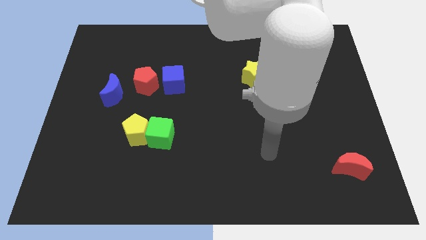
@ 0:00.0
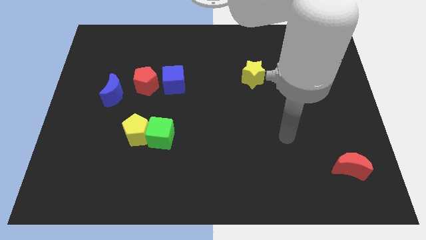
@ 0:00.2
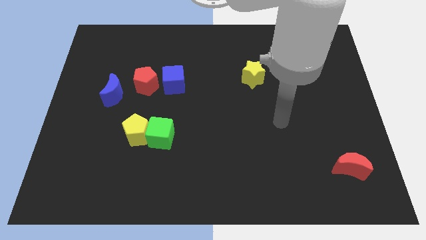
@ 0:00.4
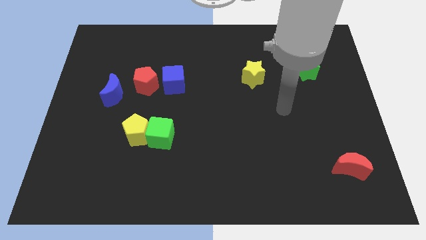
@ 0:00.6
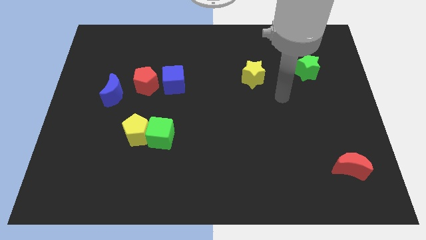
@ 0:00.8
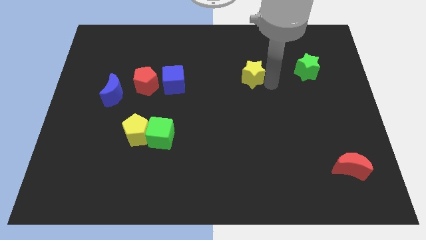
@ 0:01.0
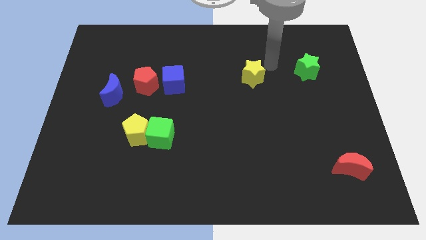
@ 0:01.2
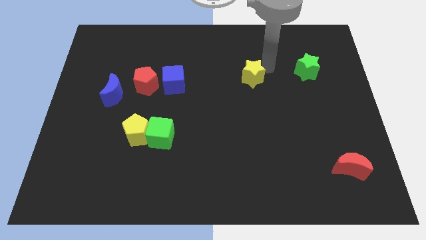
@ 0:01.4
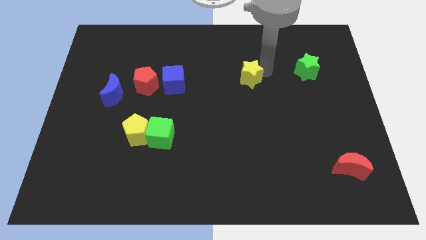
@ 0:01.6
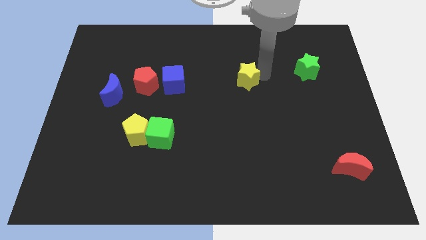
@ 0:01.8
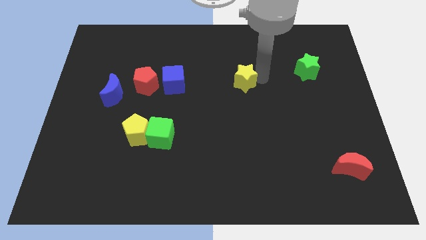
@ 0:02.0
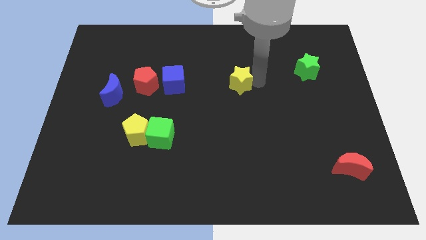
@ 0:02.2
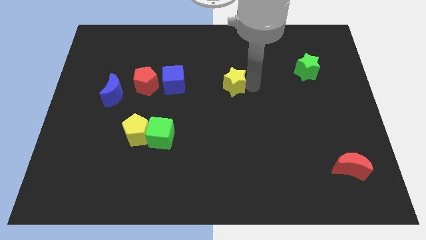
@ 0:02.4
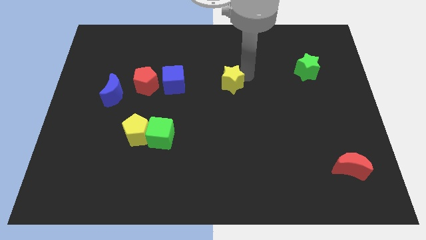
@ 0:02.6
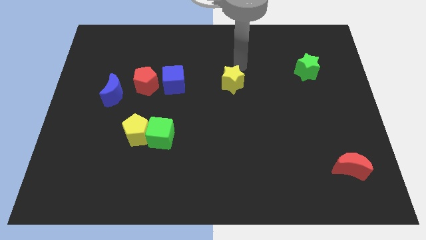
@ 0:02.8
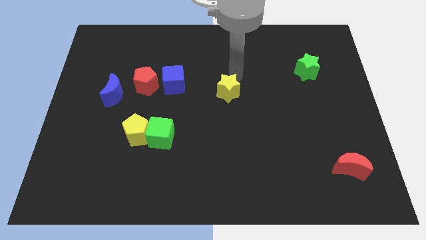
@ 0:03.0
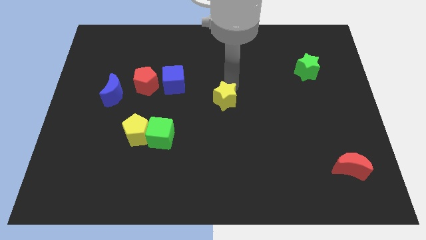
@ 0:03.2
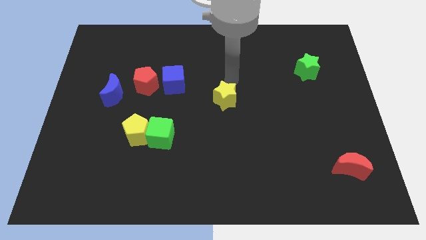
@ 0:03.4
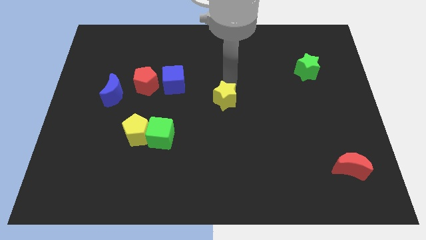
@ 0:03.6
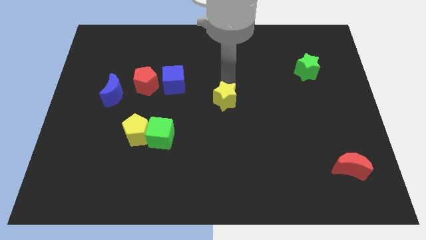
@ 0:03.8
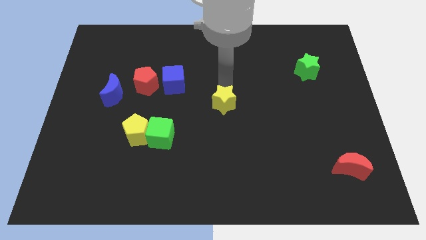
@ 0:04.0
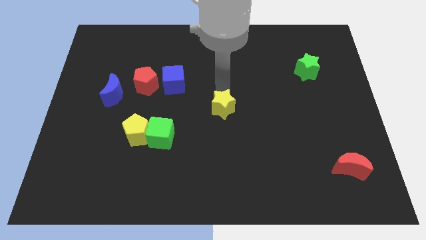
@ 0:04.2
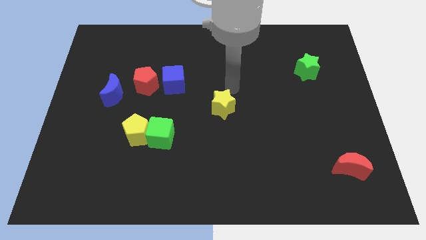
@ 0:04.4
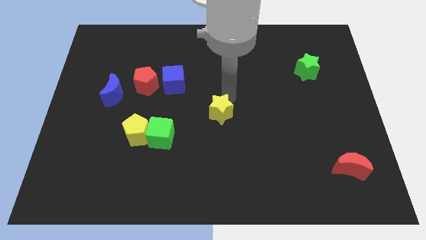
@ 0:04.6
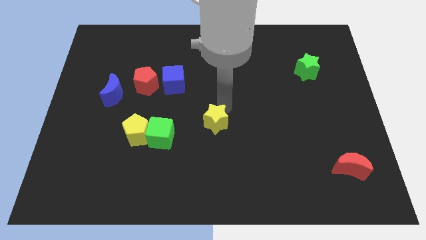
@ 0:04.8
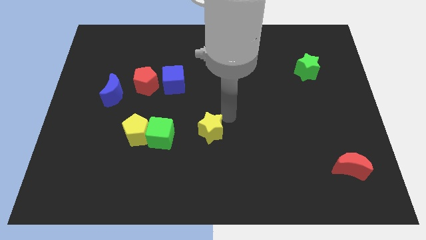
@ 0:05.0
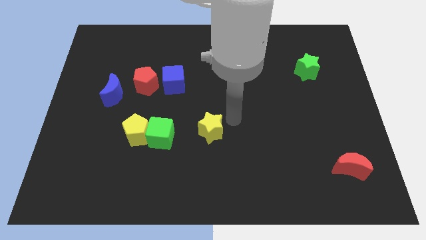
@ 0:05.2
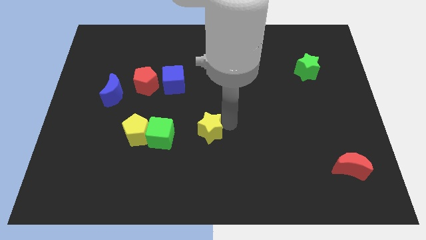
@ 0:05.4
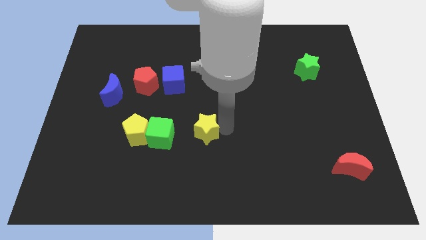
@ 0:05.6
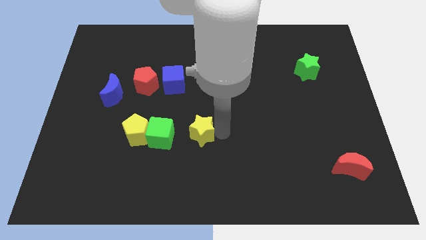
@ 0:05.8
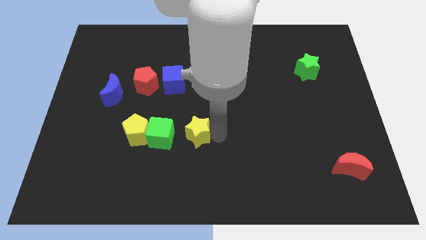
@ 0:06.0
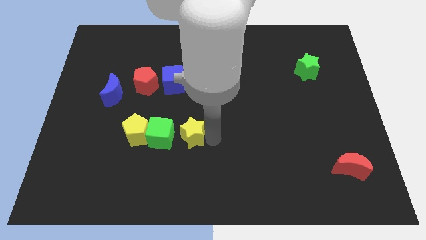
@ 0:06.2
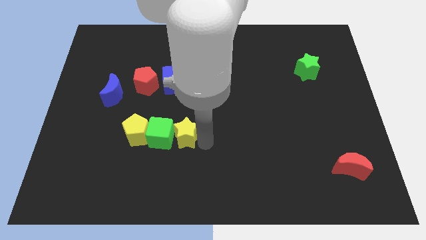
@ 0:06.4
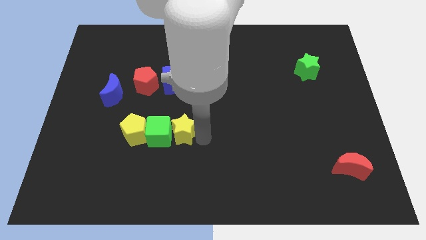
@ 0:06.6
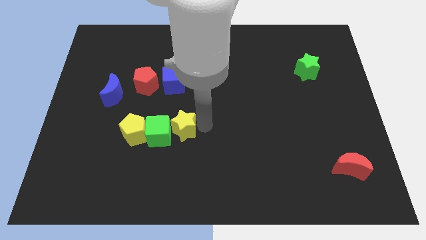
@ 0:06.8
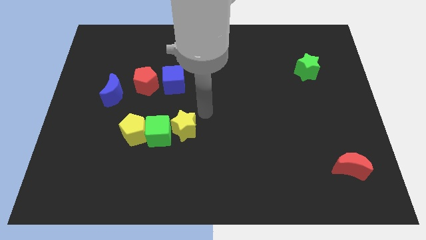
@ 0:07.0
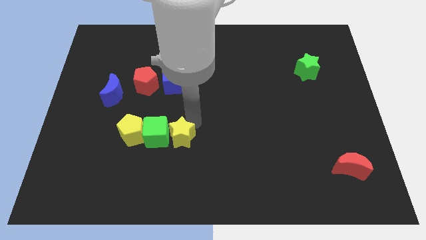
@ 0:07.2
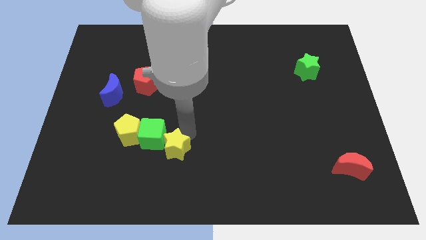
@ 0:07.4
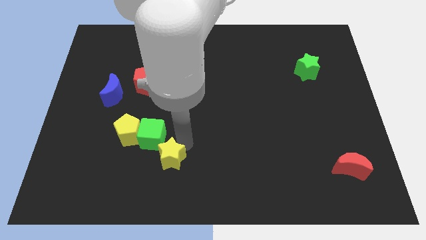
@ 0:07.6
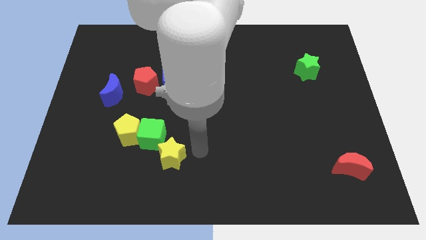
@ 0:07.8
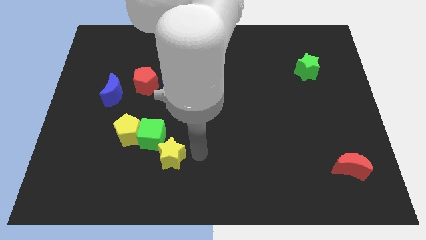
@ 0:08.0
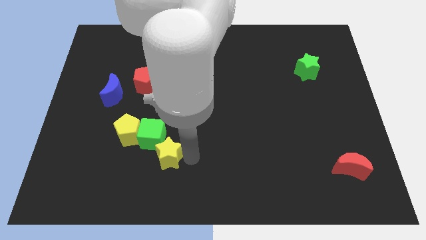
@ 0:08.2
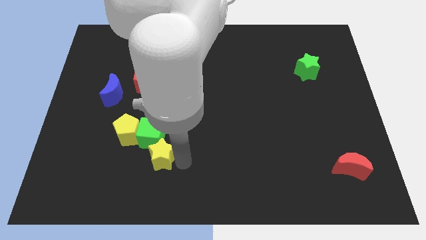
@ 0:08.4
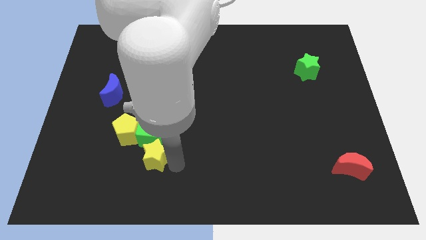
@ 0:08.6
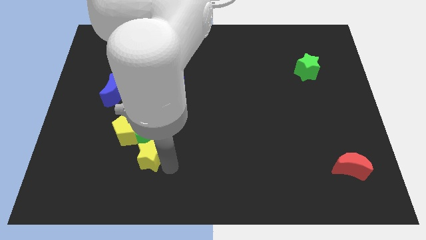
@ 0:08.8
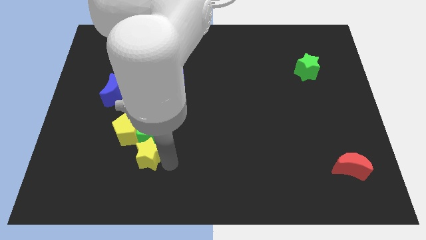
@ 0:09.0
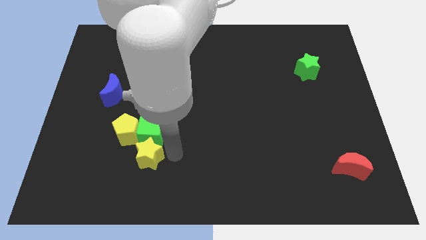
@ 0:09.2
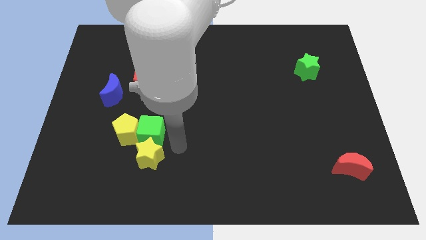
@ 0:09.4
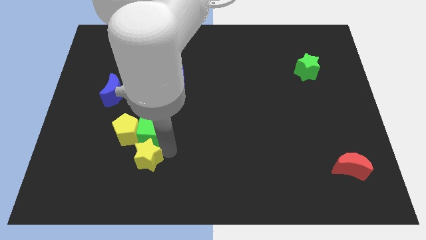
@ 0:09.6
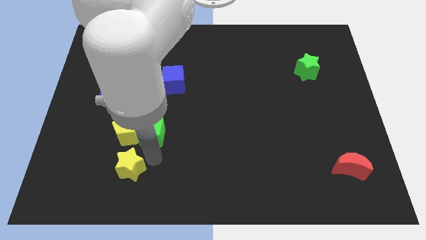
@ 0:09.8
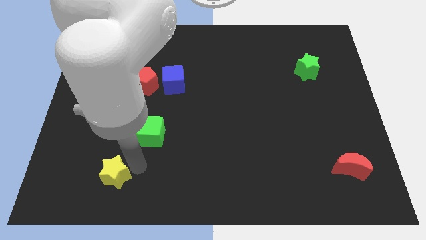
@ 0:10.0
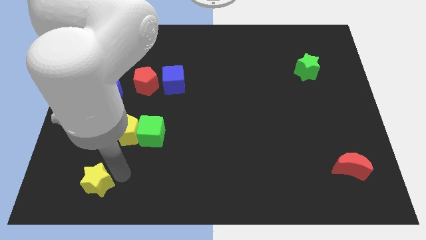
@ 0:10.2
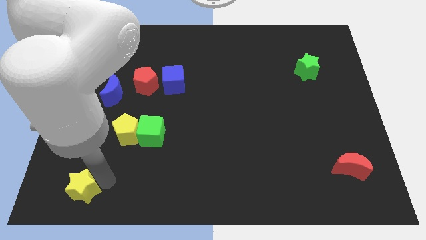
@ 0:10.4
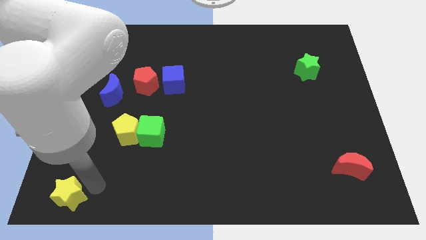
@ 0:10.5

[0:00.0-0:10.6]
slide the yellow star to the lower left corner

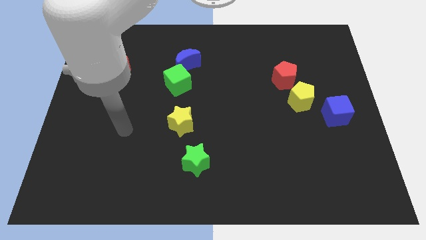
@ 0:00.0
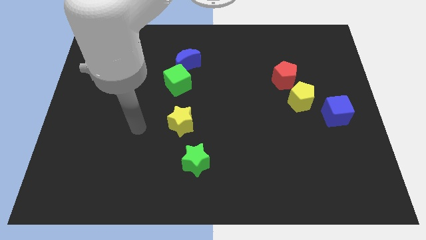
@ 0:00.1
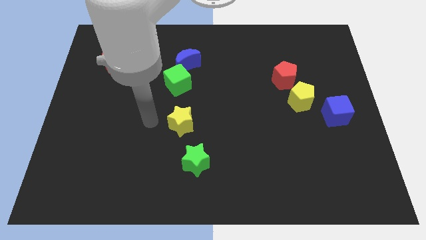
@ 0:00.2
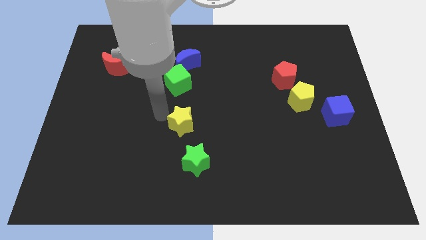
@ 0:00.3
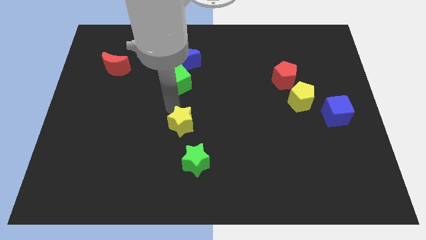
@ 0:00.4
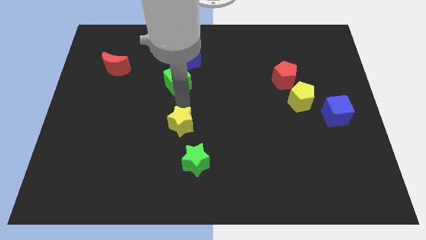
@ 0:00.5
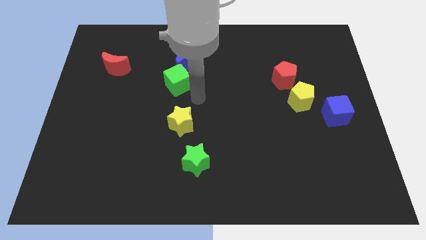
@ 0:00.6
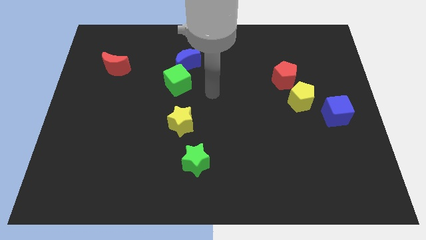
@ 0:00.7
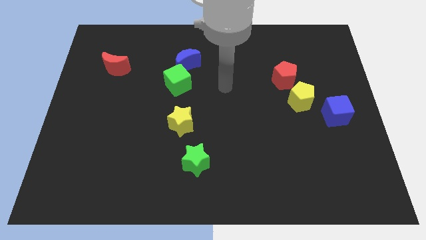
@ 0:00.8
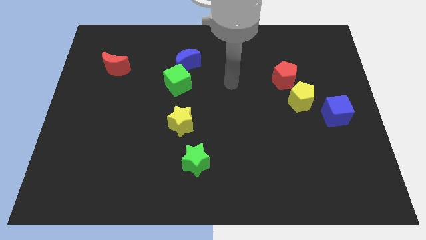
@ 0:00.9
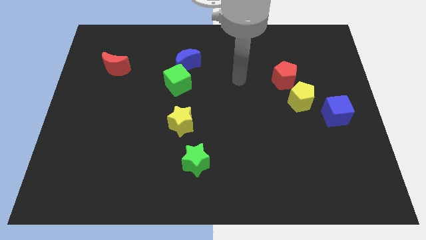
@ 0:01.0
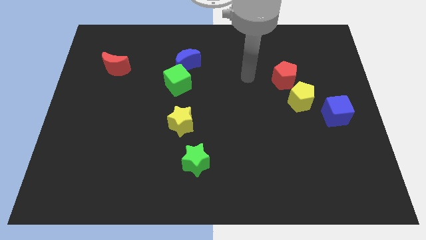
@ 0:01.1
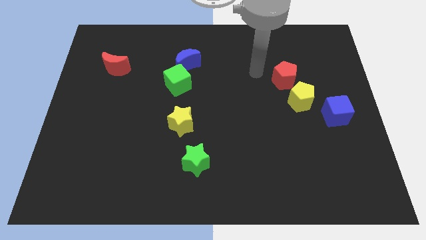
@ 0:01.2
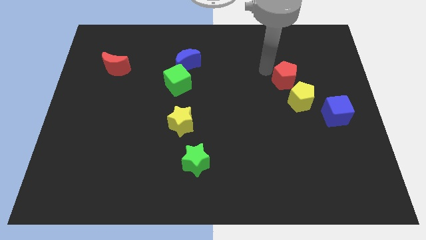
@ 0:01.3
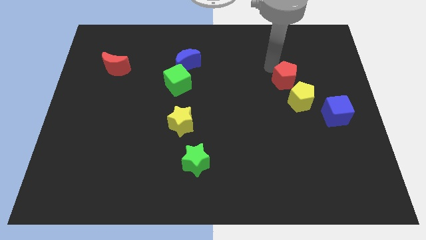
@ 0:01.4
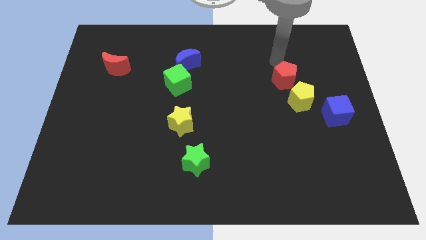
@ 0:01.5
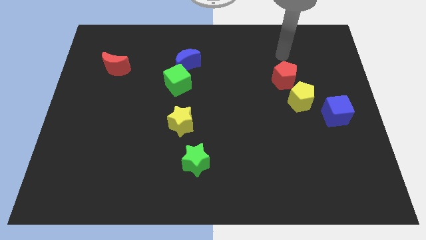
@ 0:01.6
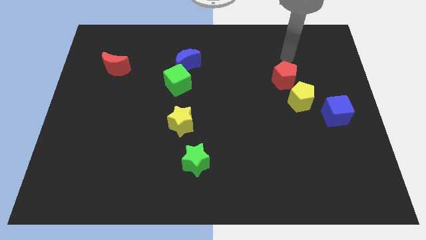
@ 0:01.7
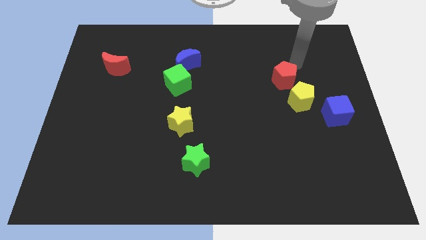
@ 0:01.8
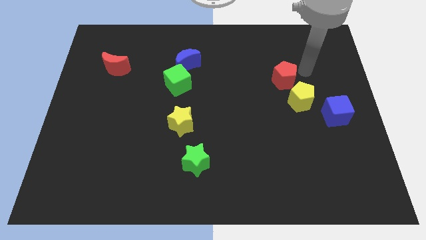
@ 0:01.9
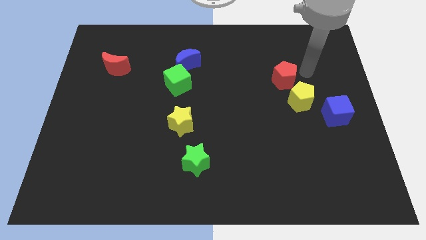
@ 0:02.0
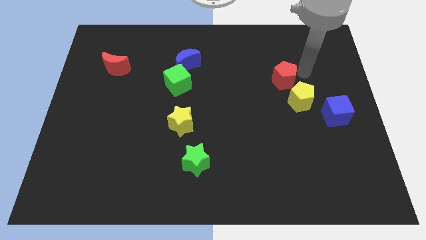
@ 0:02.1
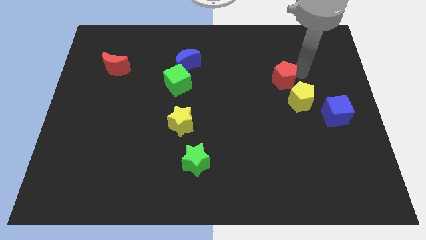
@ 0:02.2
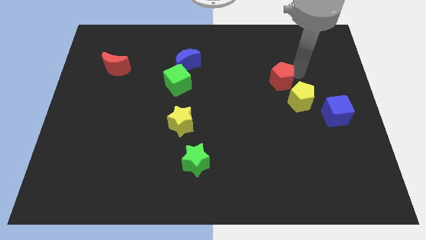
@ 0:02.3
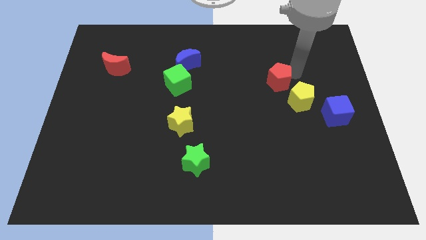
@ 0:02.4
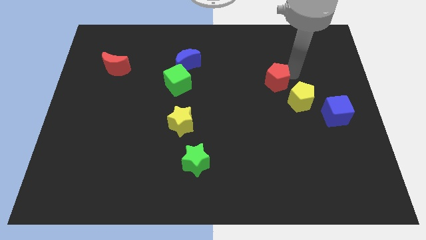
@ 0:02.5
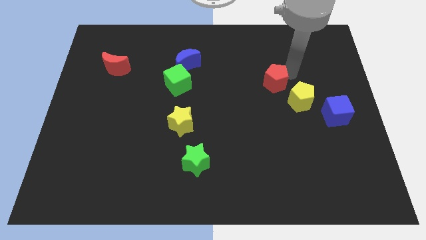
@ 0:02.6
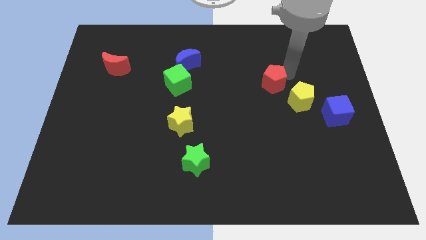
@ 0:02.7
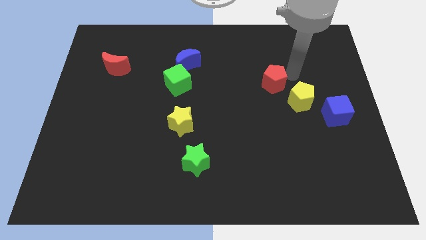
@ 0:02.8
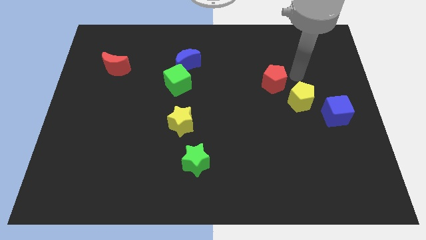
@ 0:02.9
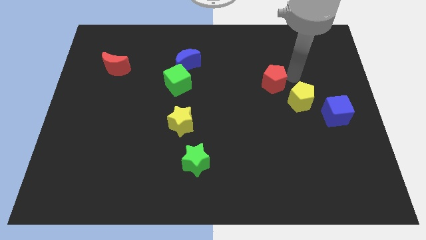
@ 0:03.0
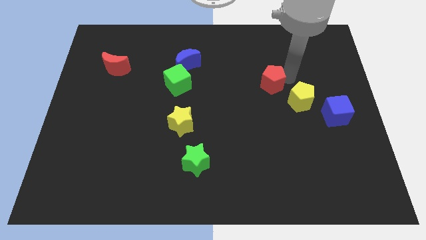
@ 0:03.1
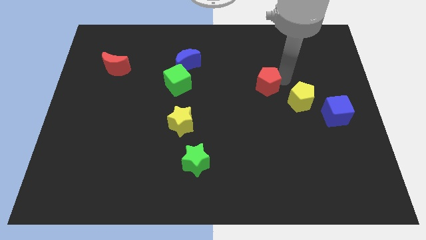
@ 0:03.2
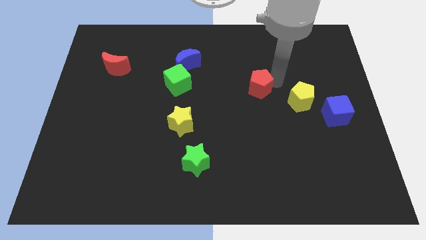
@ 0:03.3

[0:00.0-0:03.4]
put the red pentagon to the middle
